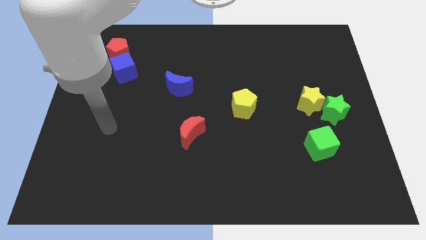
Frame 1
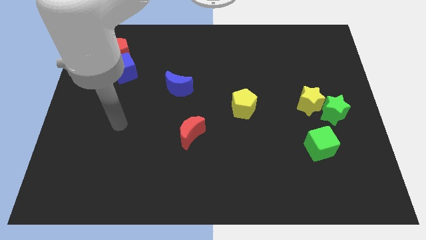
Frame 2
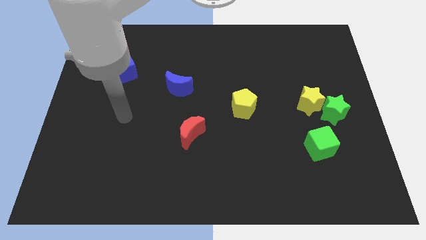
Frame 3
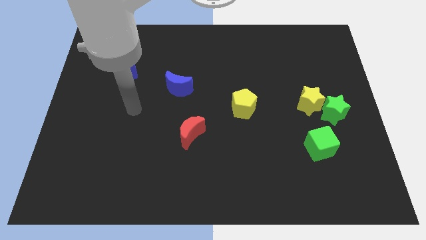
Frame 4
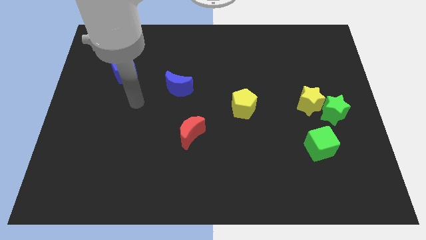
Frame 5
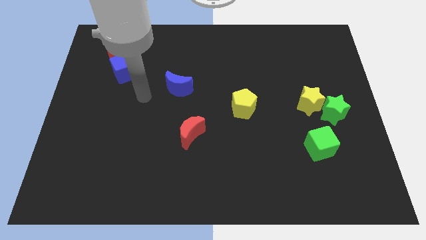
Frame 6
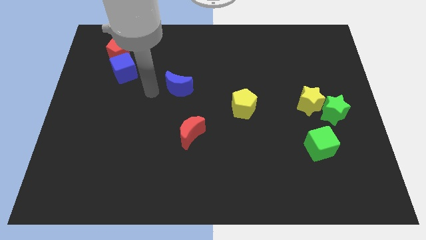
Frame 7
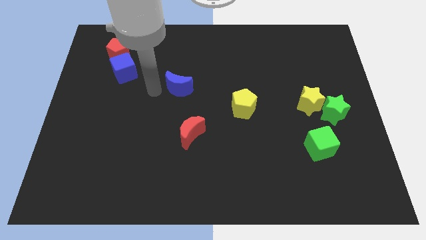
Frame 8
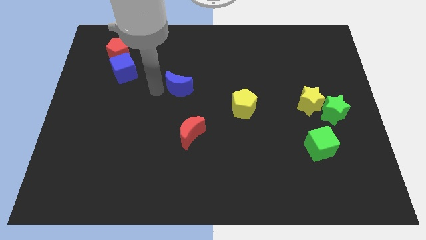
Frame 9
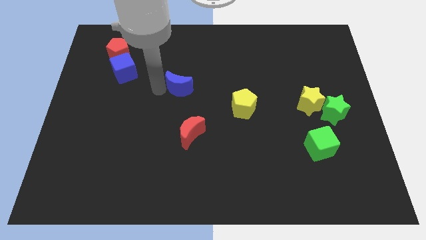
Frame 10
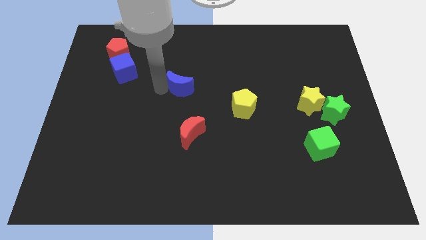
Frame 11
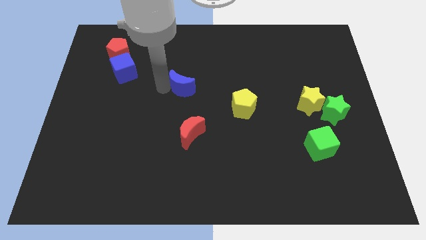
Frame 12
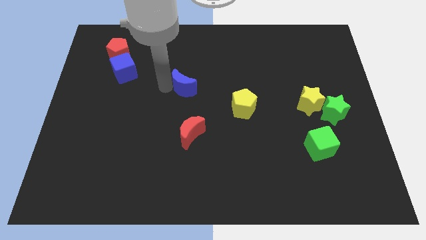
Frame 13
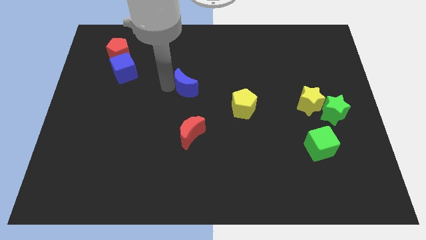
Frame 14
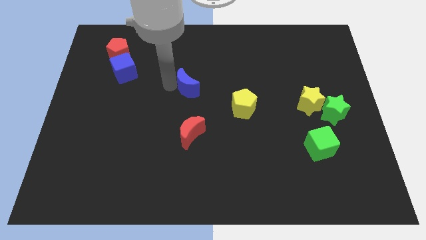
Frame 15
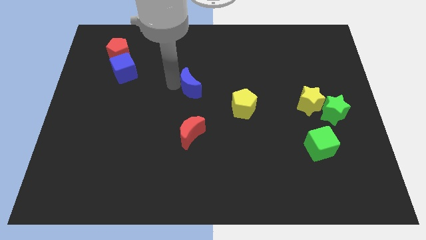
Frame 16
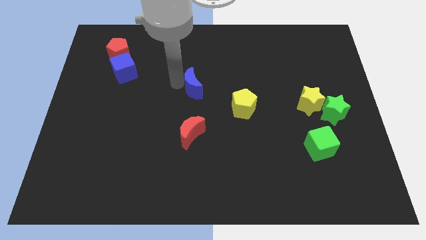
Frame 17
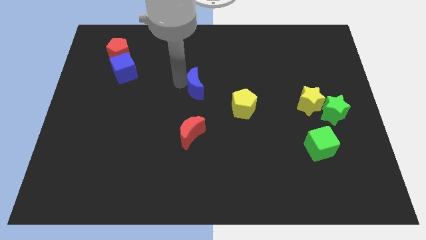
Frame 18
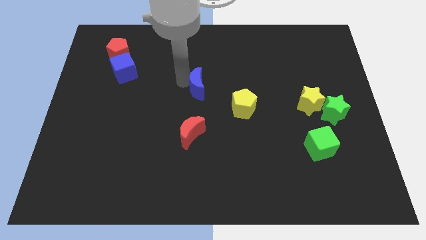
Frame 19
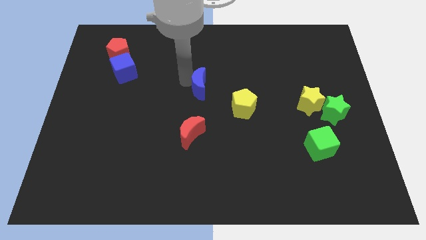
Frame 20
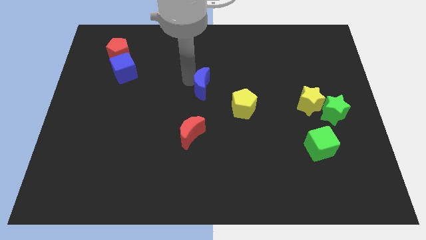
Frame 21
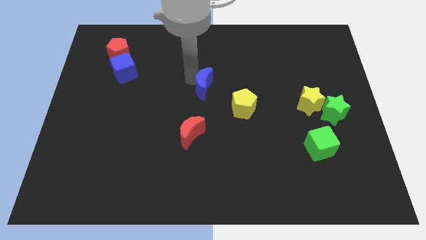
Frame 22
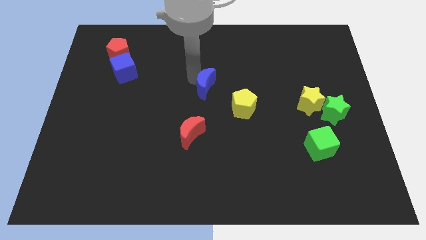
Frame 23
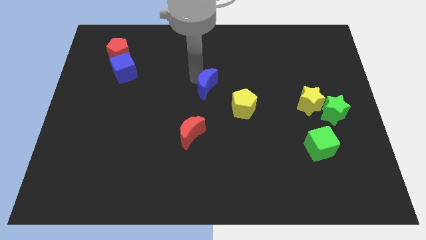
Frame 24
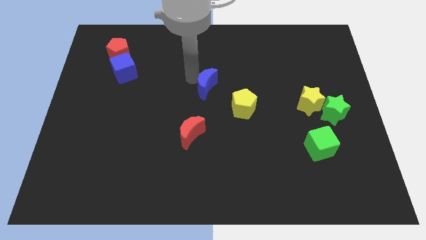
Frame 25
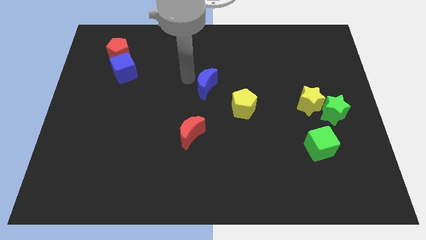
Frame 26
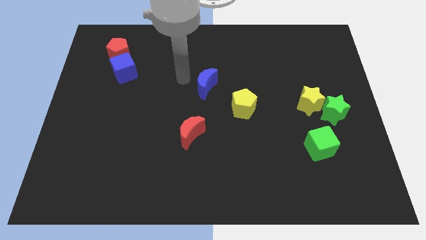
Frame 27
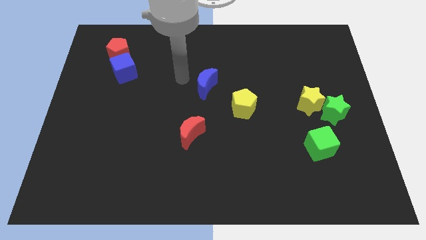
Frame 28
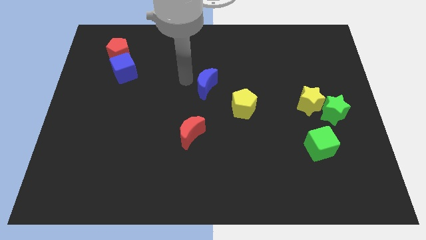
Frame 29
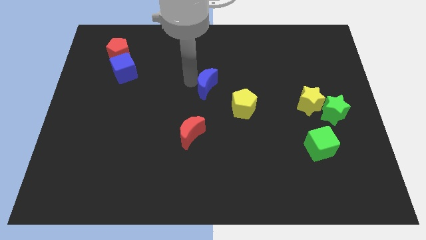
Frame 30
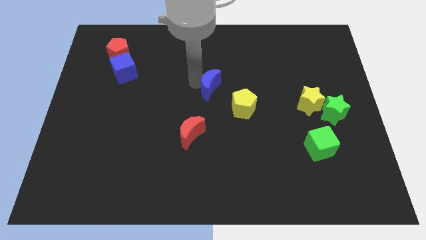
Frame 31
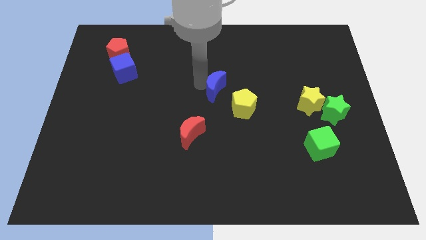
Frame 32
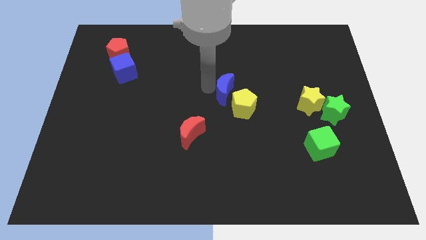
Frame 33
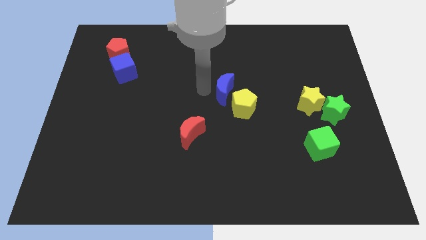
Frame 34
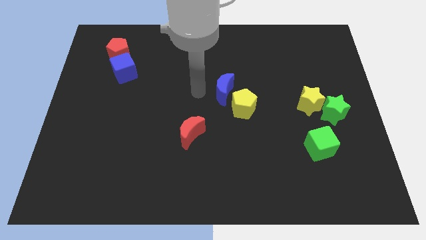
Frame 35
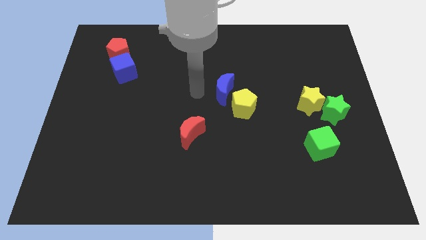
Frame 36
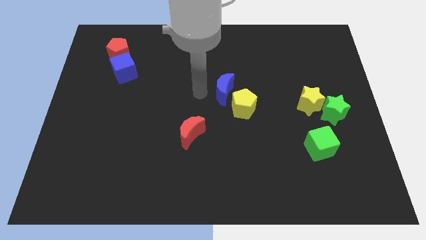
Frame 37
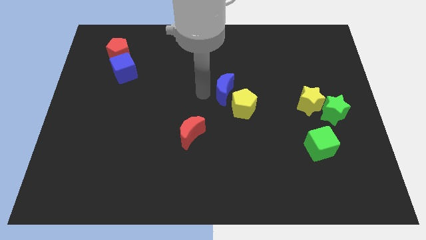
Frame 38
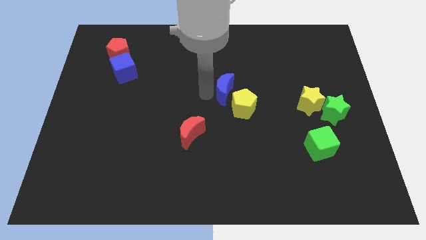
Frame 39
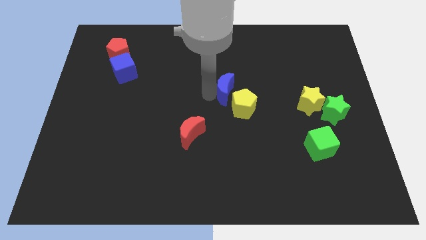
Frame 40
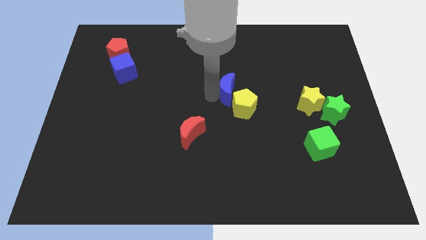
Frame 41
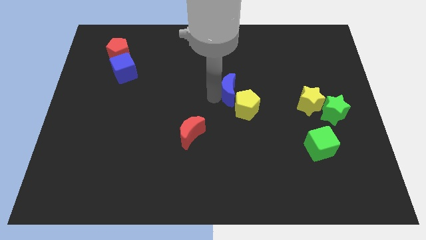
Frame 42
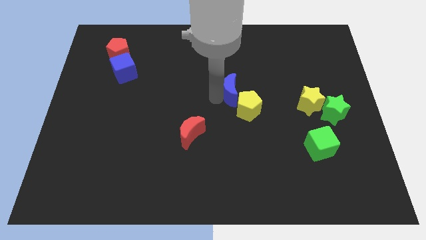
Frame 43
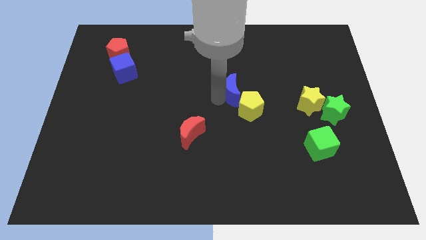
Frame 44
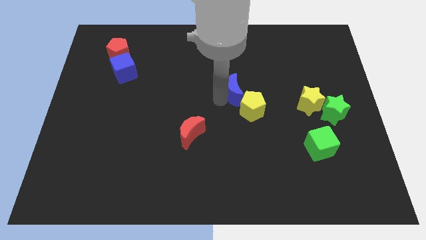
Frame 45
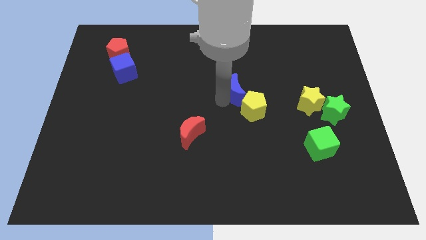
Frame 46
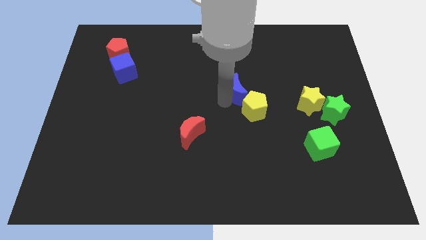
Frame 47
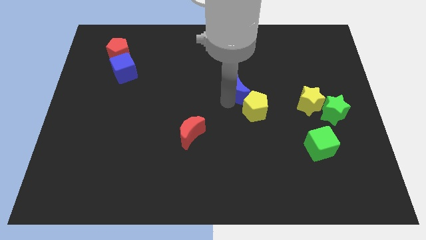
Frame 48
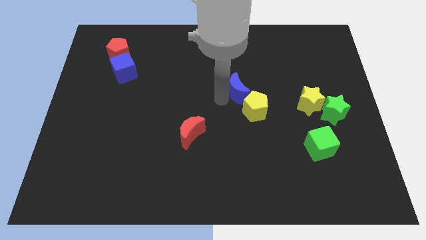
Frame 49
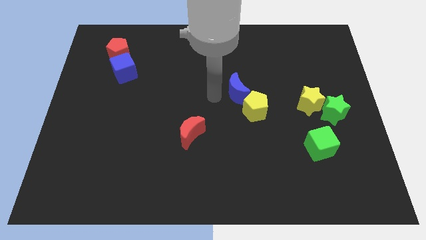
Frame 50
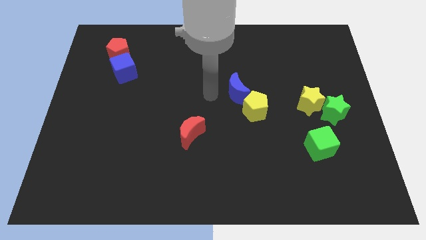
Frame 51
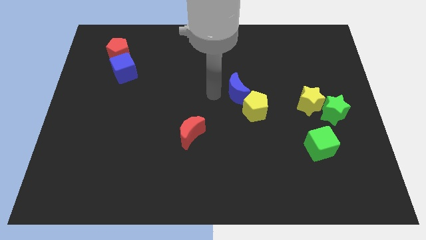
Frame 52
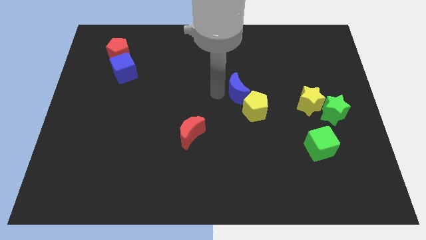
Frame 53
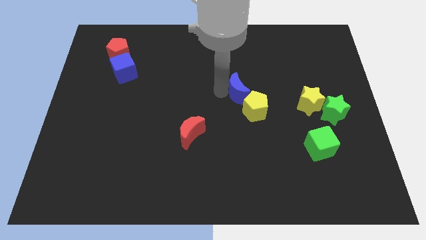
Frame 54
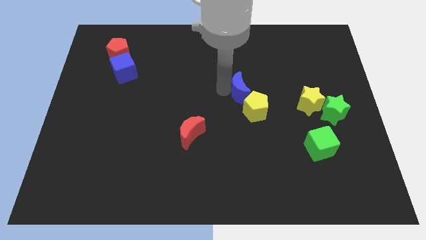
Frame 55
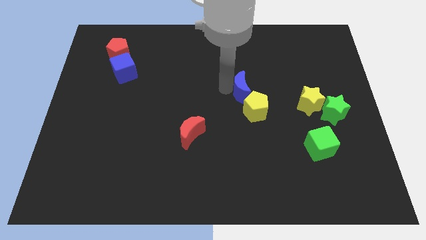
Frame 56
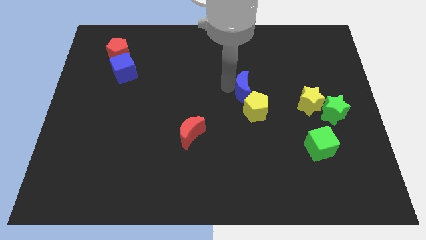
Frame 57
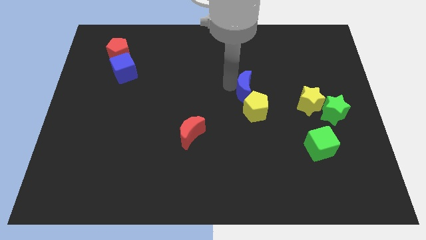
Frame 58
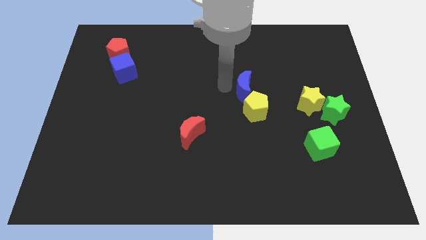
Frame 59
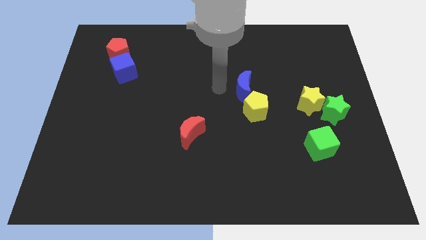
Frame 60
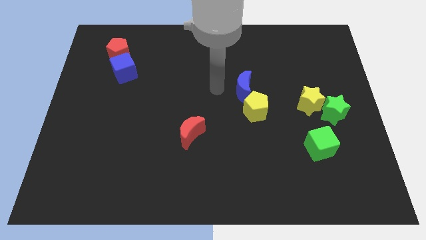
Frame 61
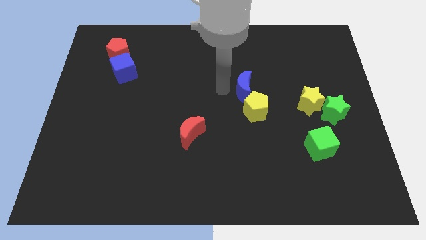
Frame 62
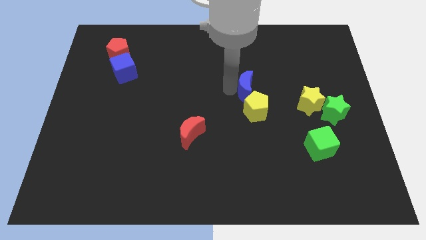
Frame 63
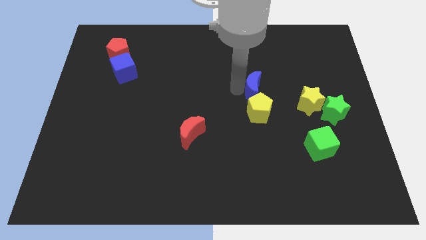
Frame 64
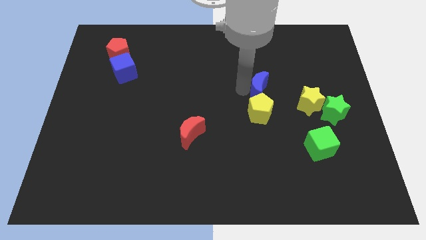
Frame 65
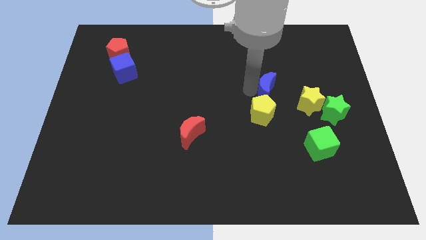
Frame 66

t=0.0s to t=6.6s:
push the blue moon to the right

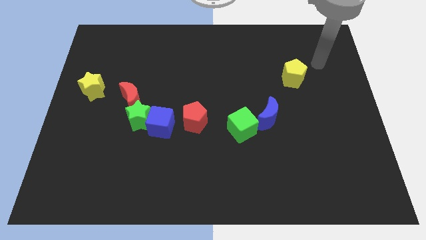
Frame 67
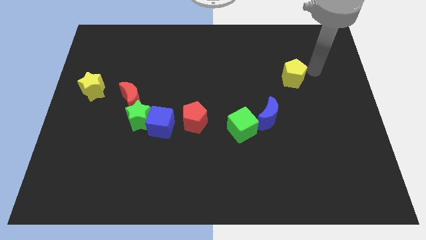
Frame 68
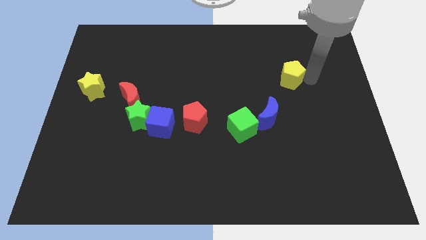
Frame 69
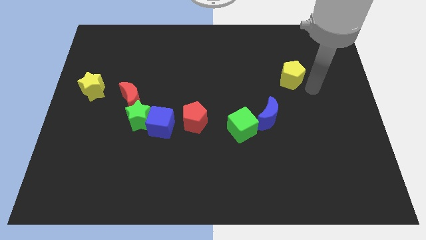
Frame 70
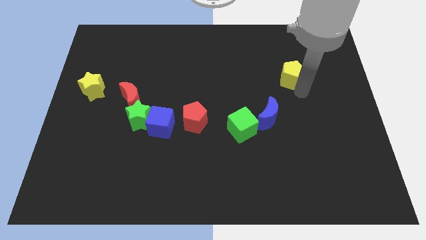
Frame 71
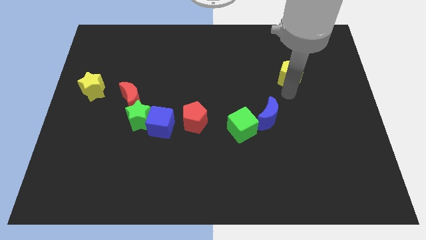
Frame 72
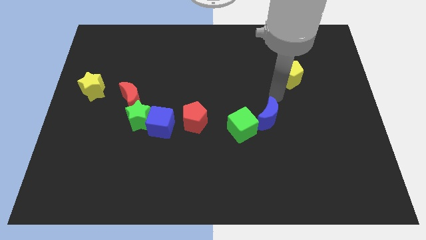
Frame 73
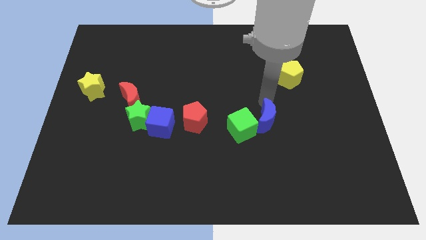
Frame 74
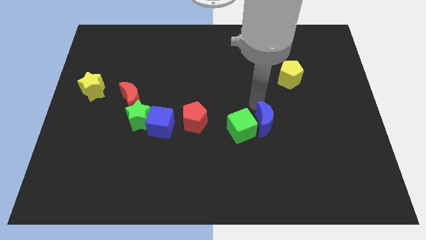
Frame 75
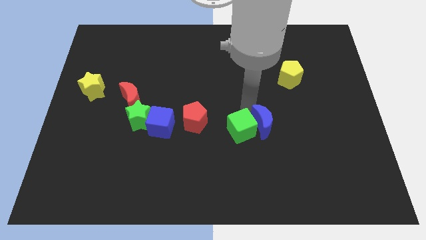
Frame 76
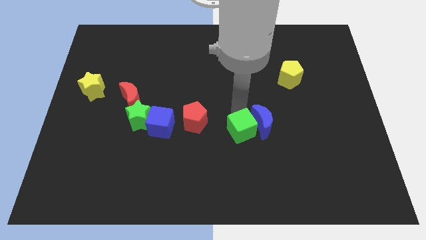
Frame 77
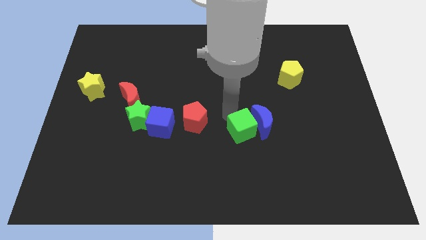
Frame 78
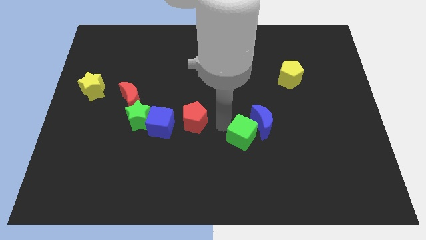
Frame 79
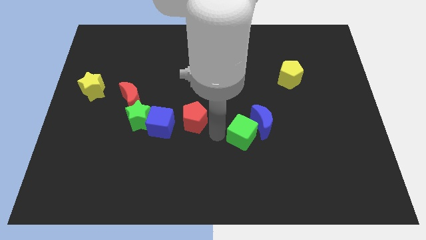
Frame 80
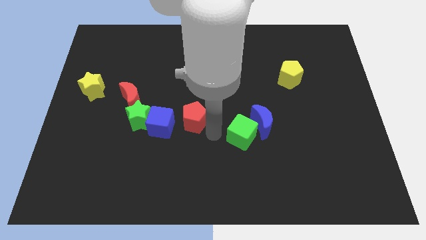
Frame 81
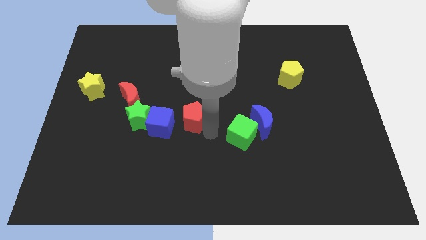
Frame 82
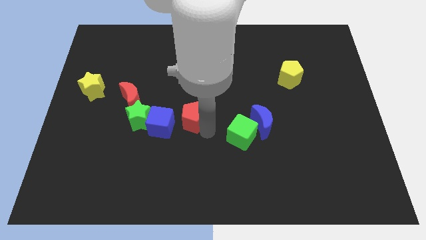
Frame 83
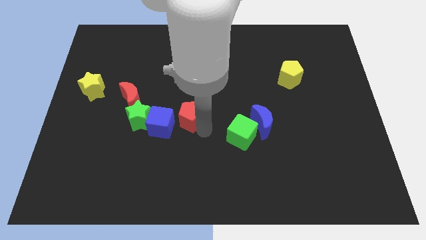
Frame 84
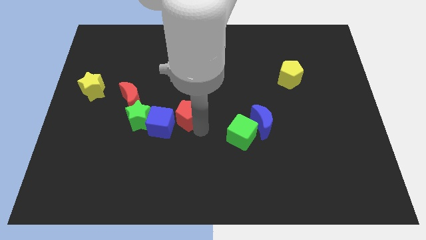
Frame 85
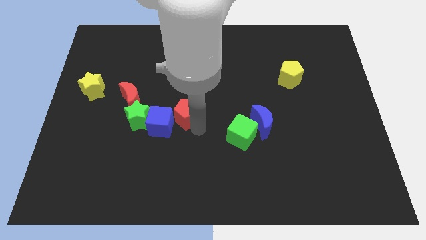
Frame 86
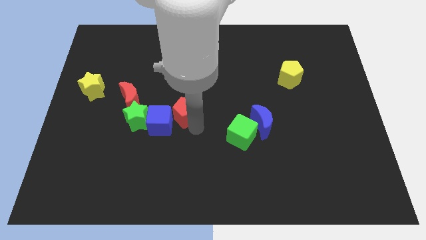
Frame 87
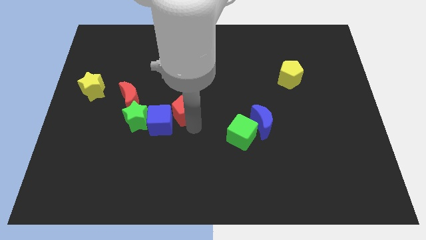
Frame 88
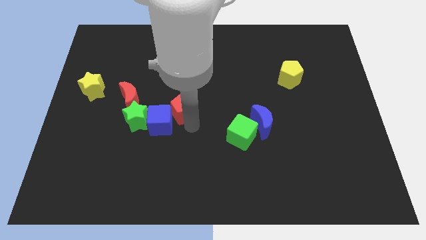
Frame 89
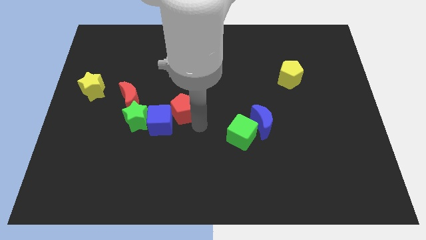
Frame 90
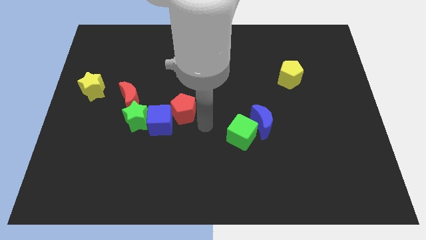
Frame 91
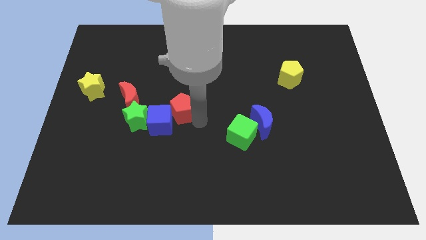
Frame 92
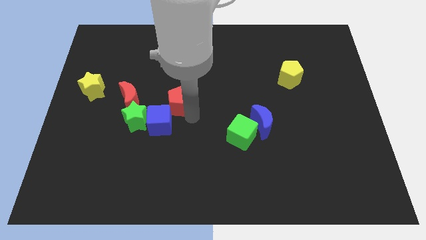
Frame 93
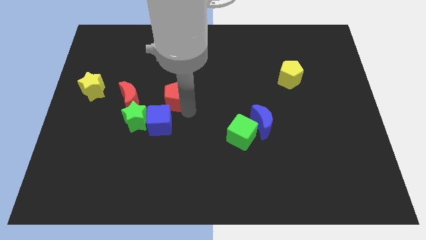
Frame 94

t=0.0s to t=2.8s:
move the red pentagon a little bit upwards and then to the left
